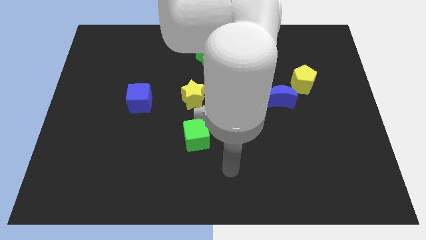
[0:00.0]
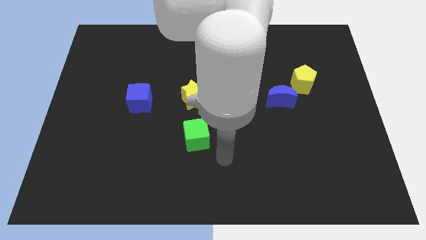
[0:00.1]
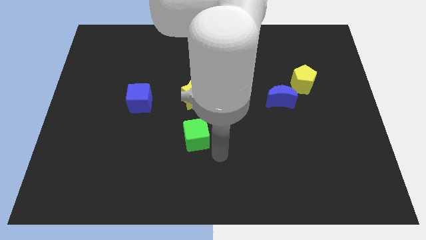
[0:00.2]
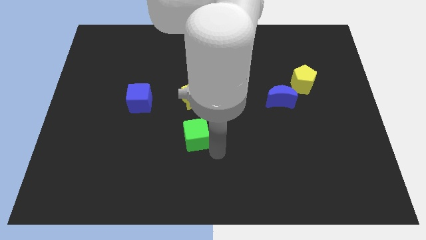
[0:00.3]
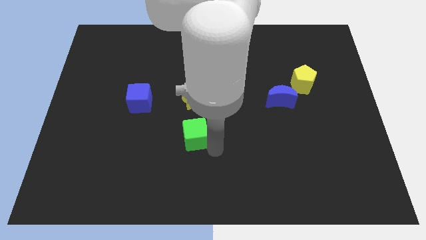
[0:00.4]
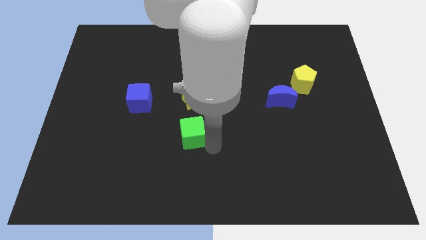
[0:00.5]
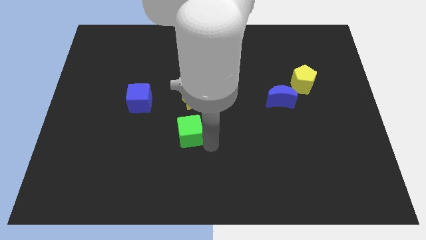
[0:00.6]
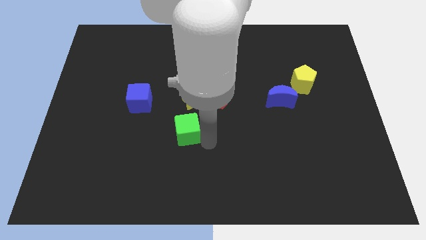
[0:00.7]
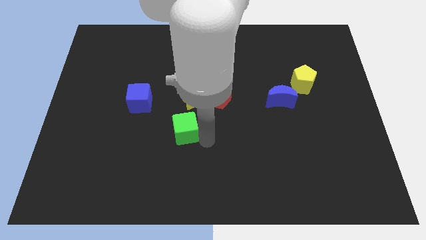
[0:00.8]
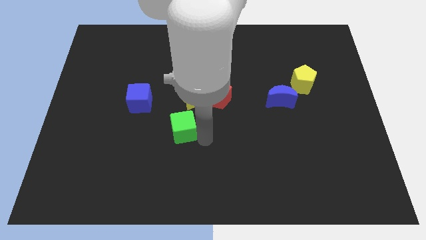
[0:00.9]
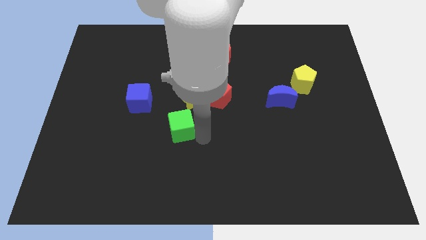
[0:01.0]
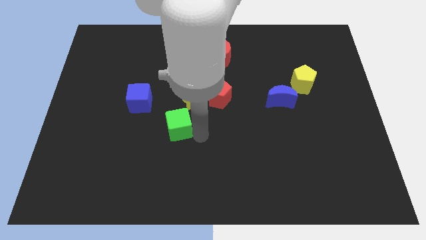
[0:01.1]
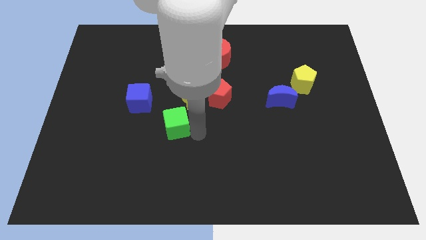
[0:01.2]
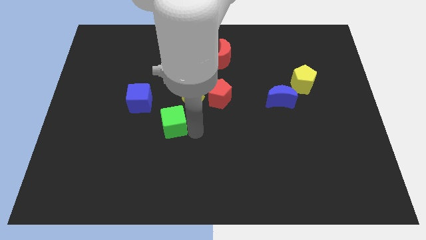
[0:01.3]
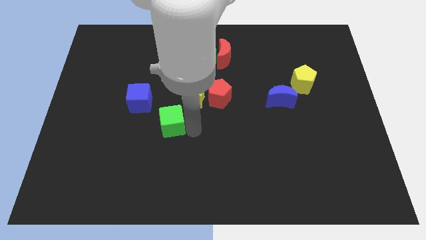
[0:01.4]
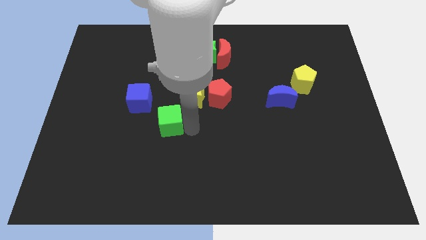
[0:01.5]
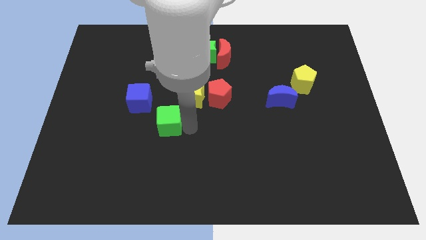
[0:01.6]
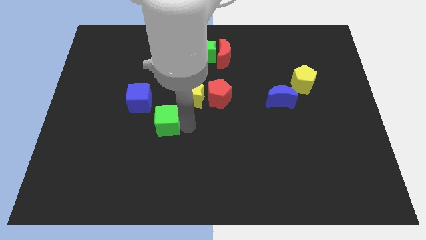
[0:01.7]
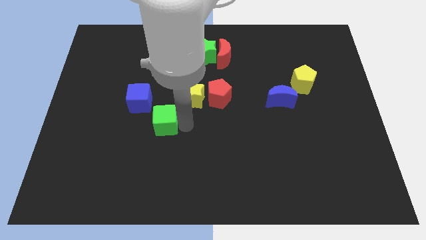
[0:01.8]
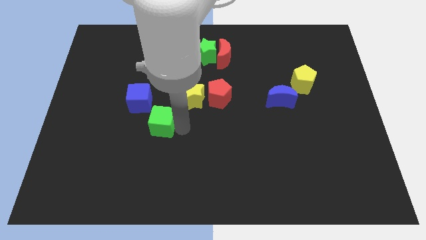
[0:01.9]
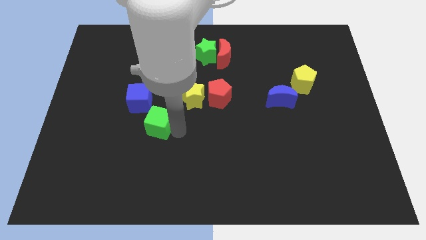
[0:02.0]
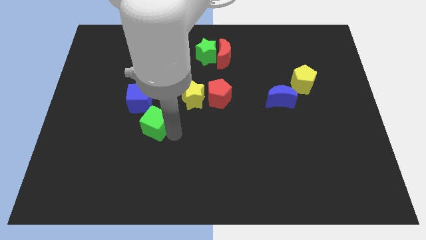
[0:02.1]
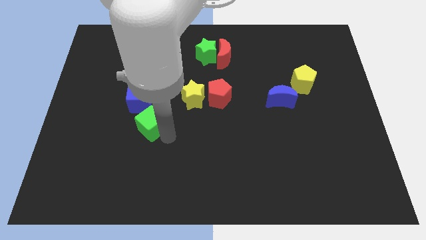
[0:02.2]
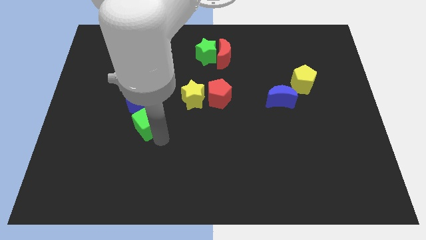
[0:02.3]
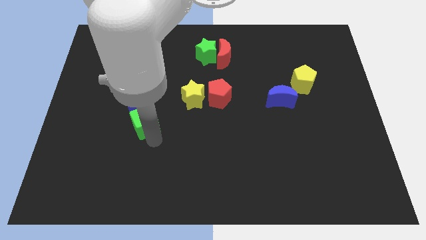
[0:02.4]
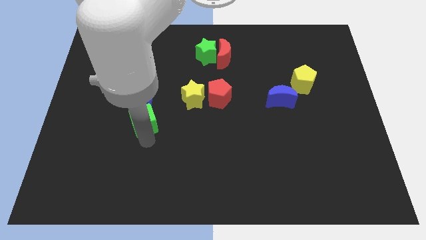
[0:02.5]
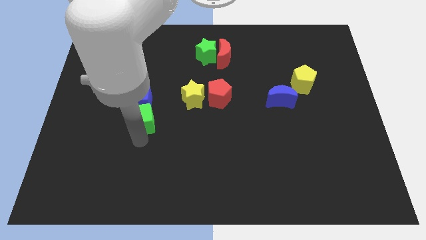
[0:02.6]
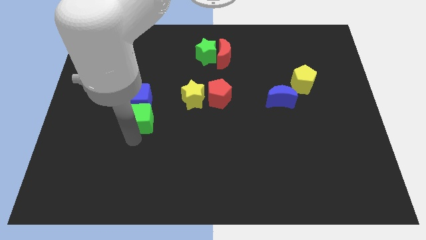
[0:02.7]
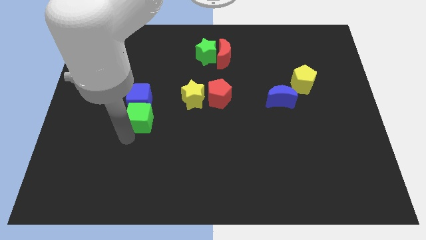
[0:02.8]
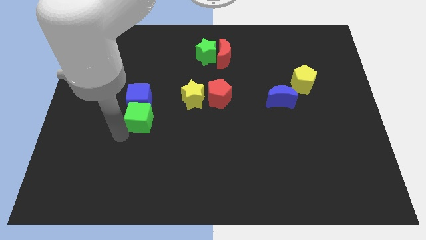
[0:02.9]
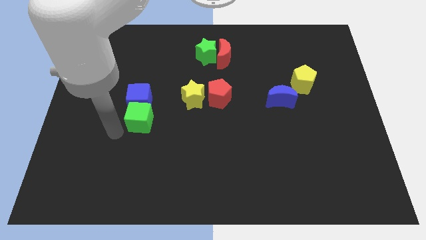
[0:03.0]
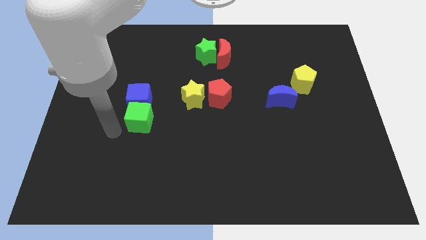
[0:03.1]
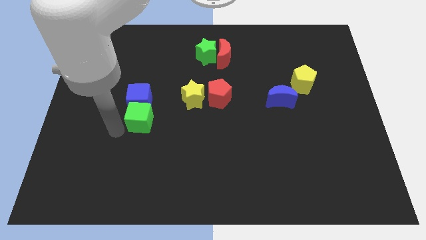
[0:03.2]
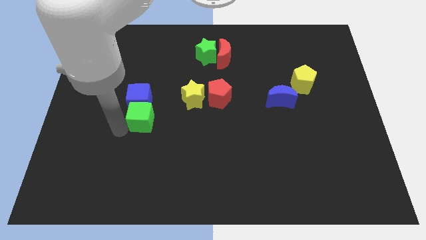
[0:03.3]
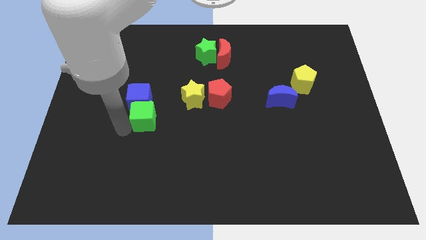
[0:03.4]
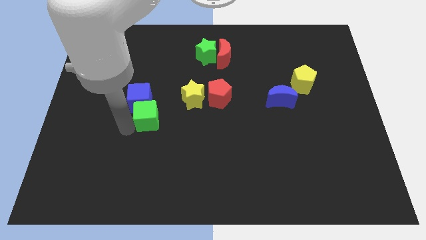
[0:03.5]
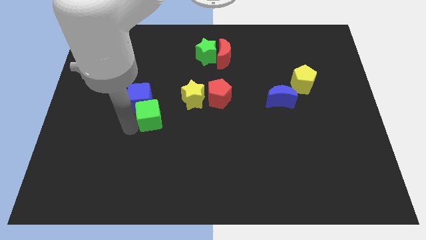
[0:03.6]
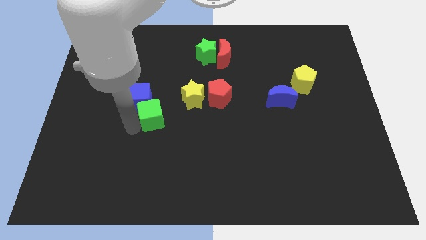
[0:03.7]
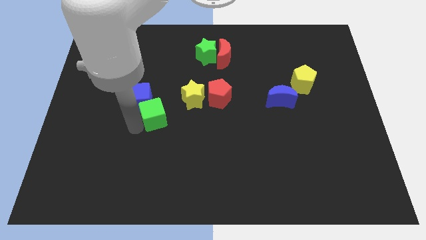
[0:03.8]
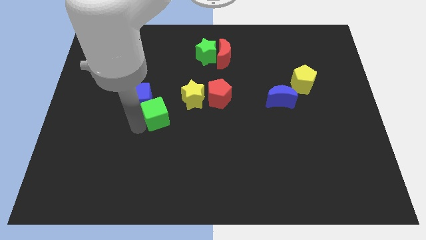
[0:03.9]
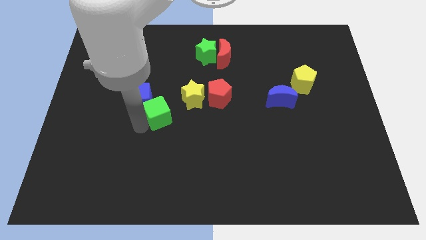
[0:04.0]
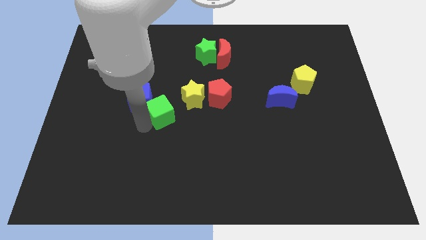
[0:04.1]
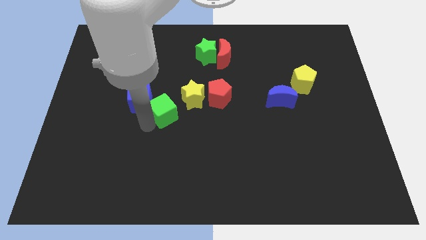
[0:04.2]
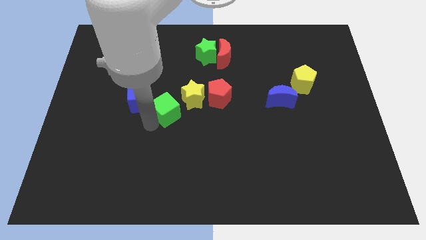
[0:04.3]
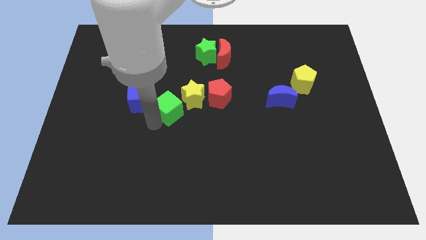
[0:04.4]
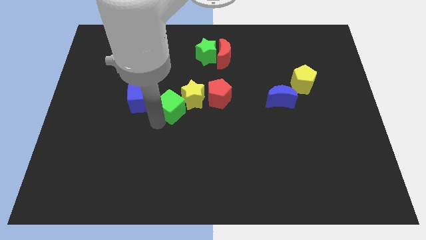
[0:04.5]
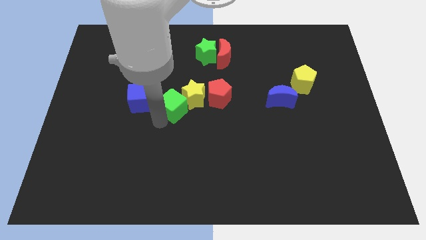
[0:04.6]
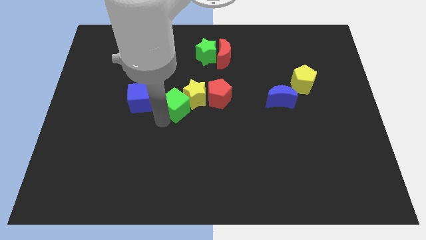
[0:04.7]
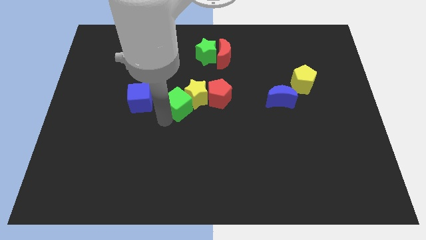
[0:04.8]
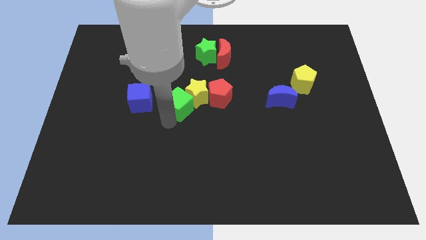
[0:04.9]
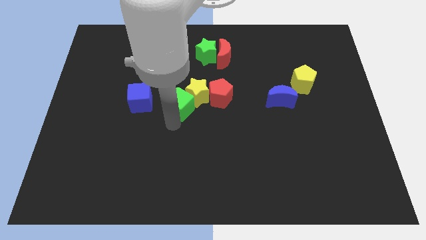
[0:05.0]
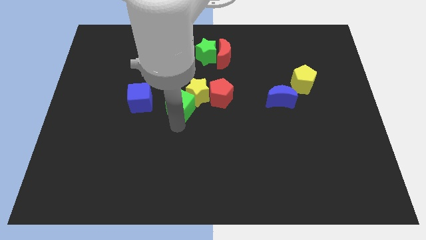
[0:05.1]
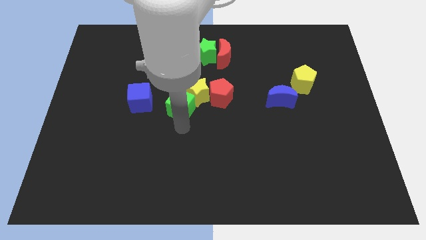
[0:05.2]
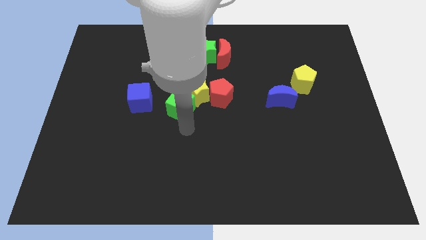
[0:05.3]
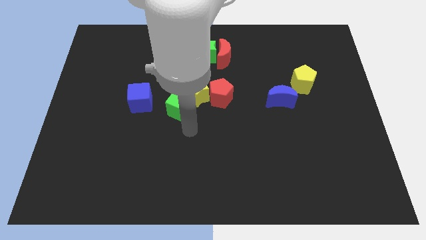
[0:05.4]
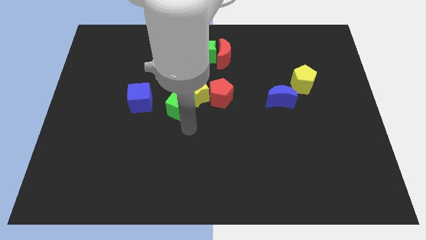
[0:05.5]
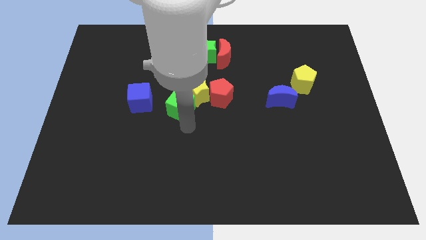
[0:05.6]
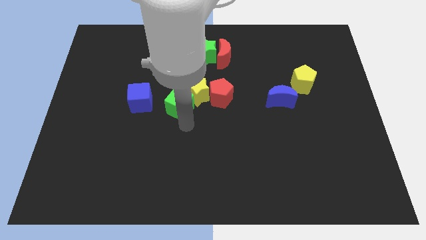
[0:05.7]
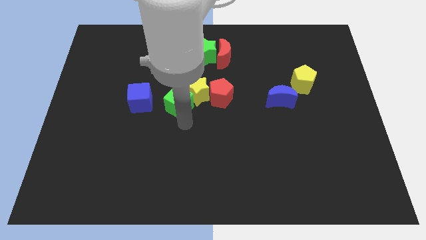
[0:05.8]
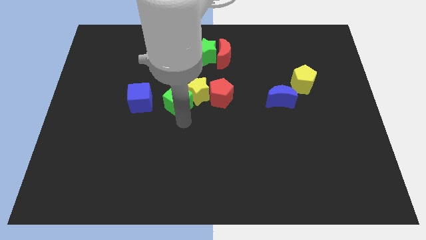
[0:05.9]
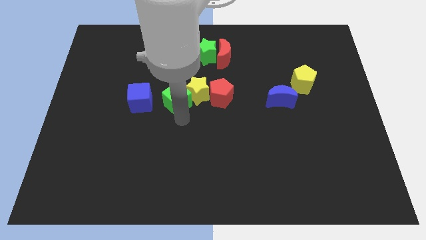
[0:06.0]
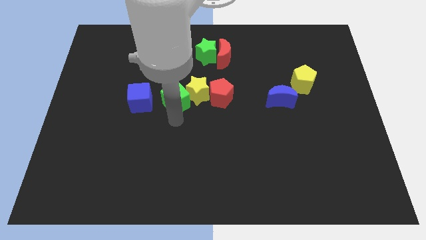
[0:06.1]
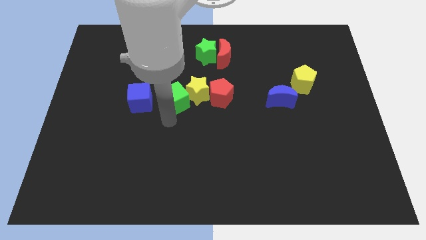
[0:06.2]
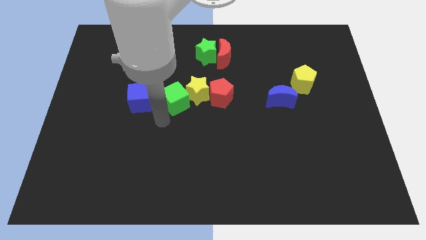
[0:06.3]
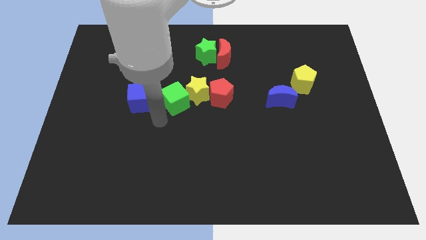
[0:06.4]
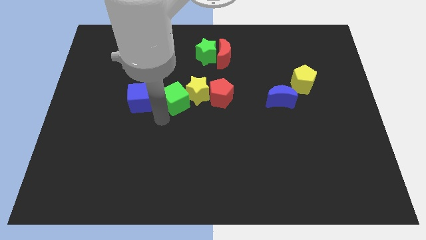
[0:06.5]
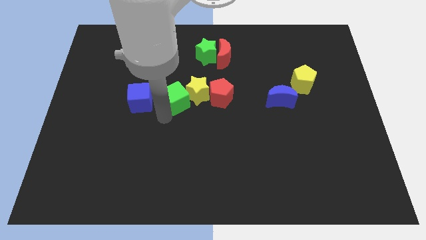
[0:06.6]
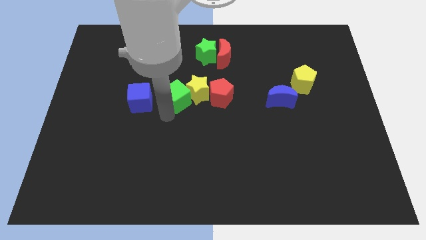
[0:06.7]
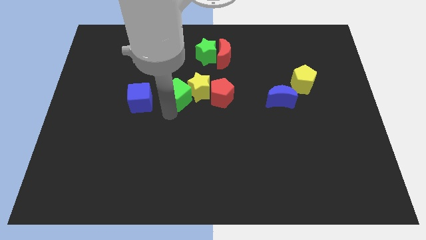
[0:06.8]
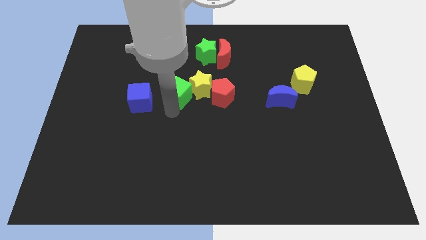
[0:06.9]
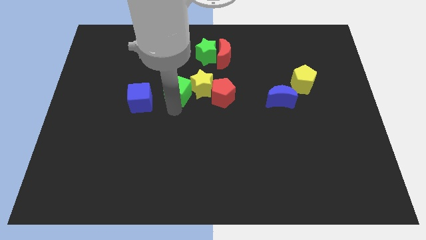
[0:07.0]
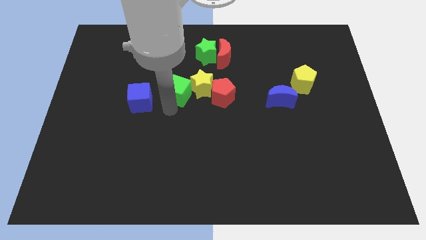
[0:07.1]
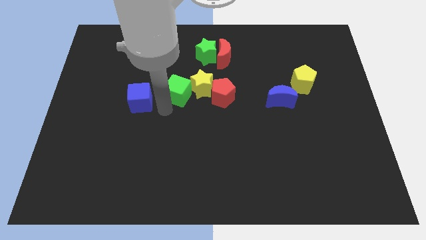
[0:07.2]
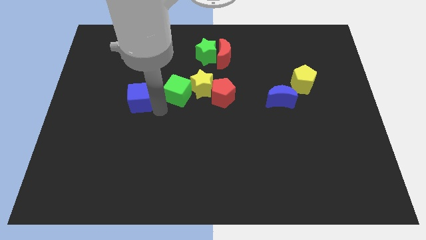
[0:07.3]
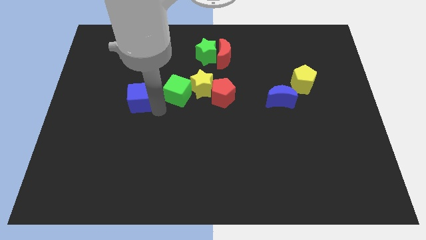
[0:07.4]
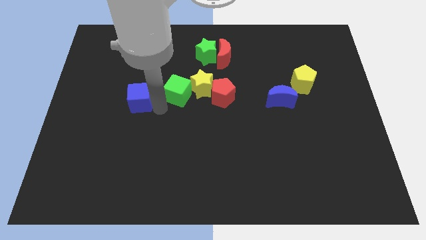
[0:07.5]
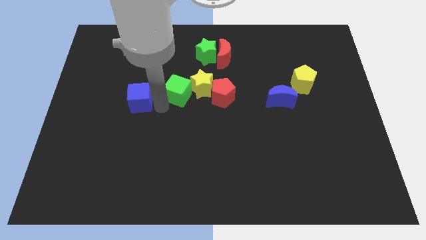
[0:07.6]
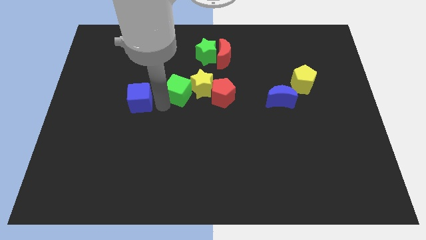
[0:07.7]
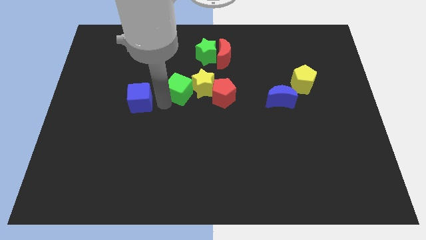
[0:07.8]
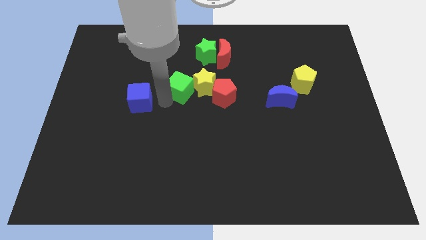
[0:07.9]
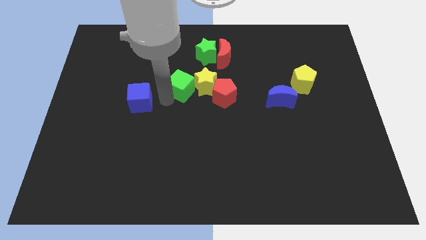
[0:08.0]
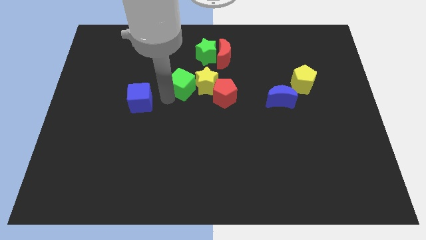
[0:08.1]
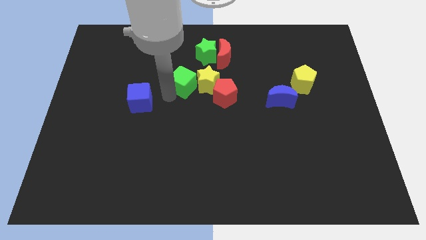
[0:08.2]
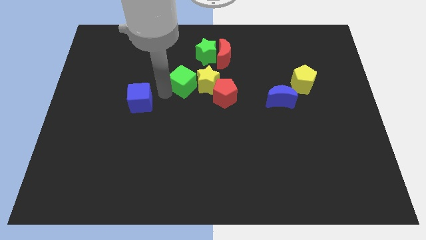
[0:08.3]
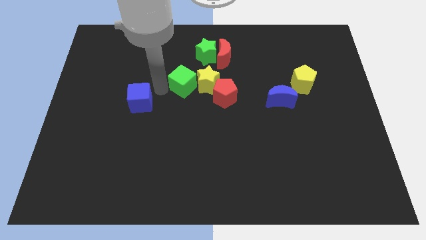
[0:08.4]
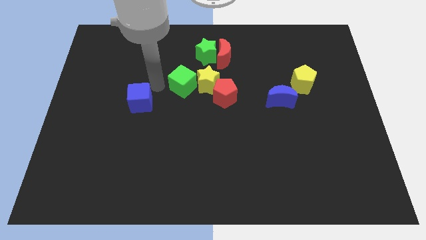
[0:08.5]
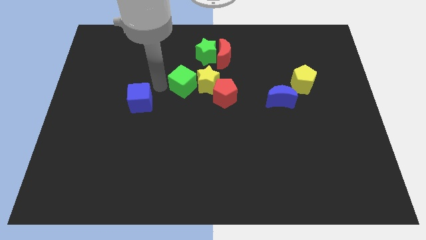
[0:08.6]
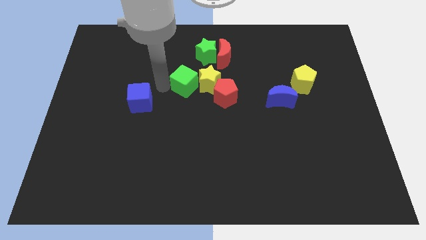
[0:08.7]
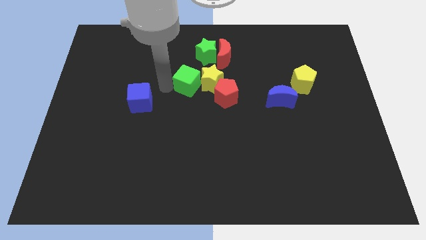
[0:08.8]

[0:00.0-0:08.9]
push the green cube to the bottom of the green star
